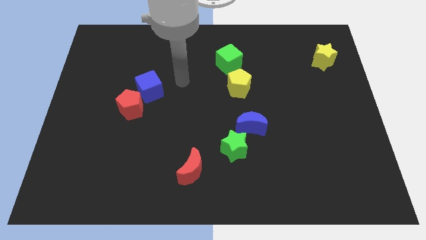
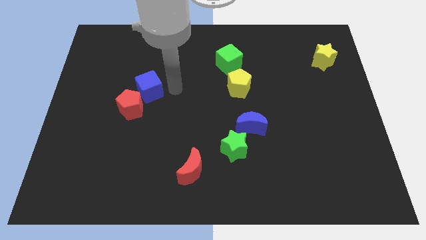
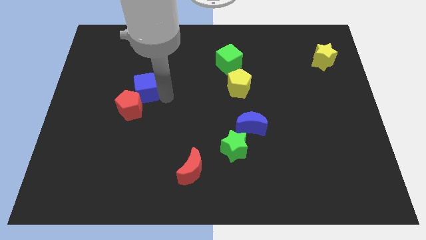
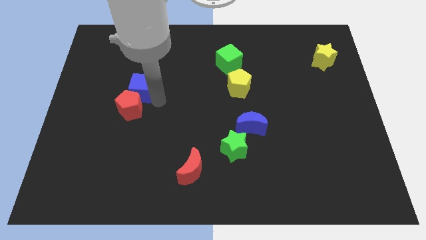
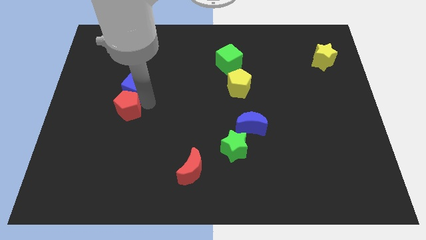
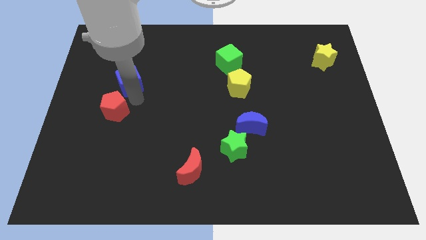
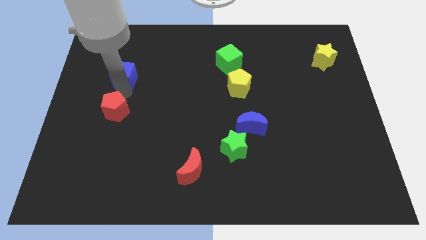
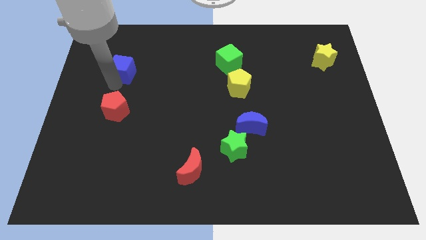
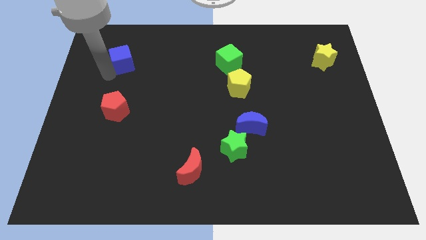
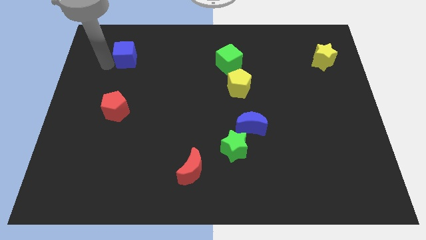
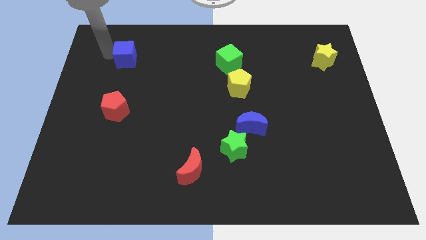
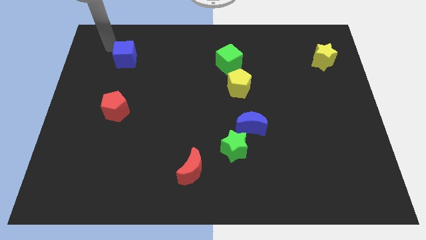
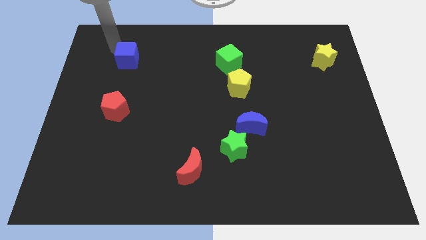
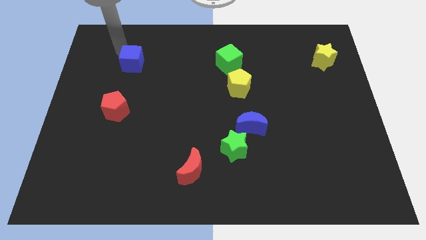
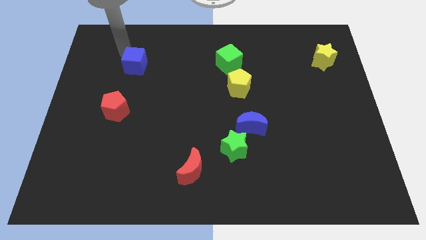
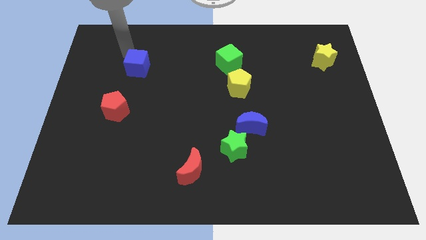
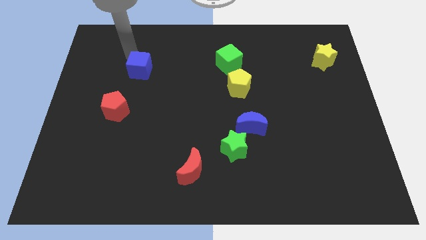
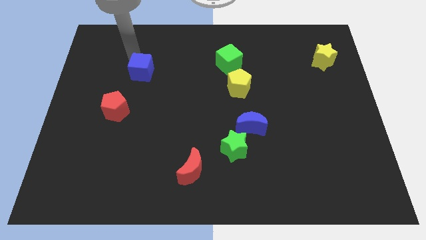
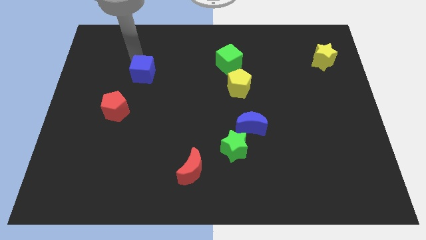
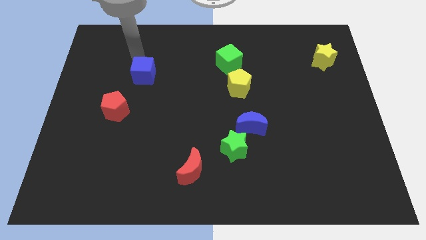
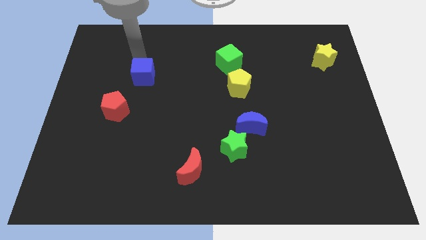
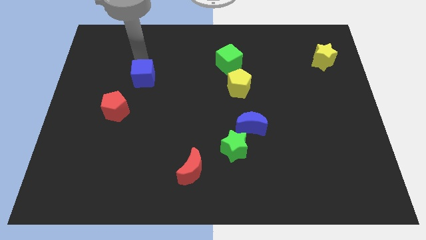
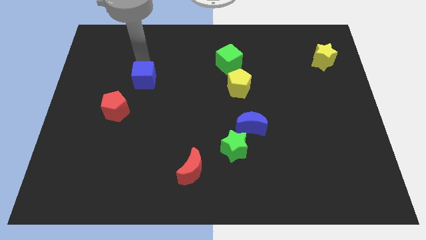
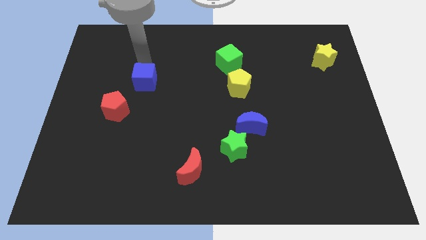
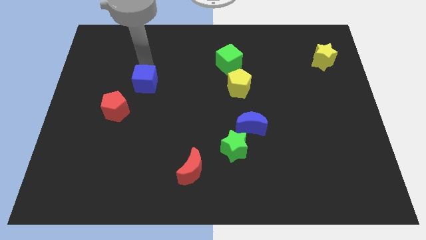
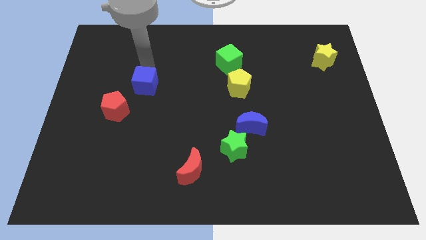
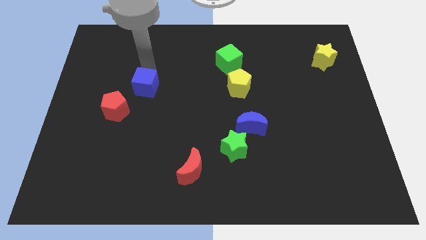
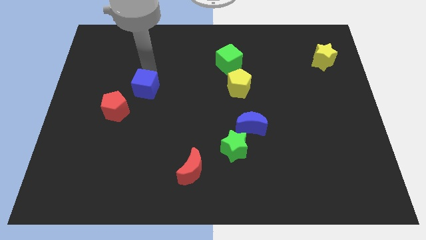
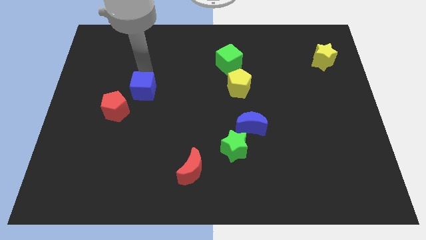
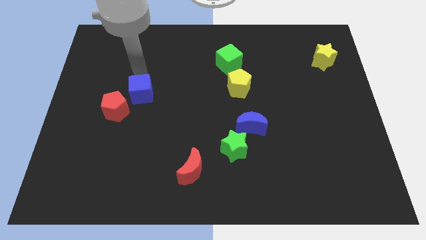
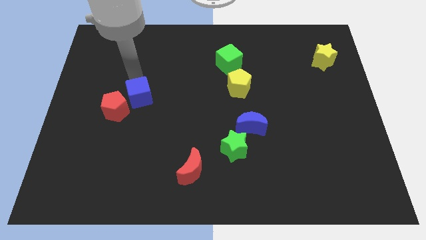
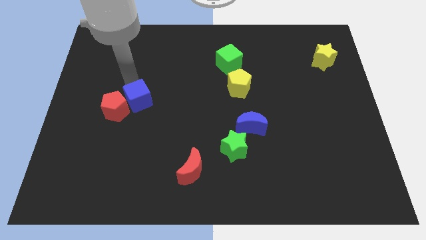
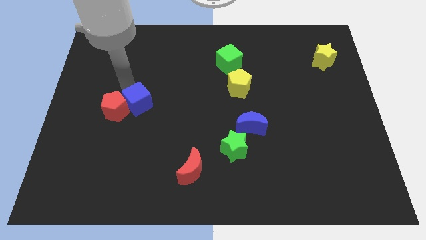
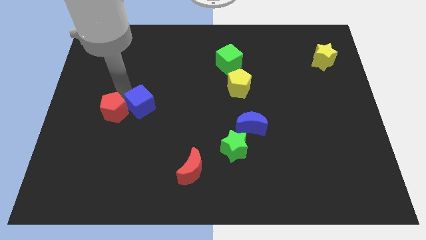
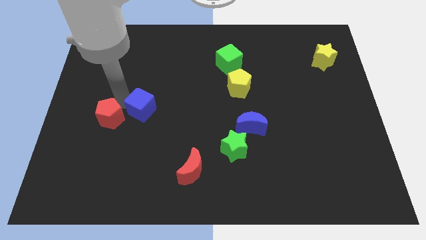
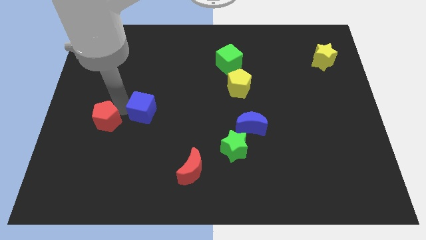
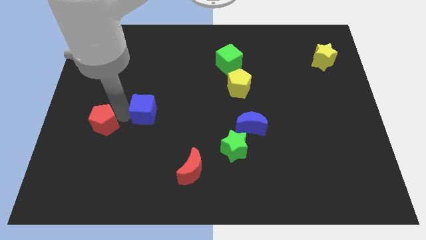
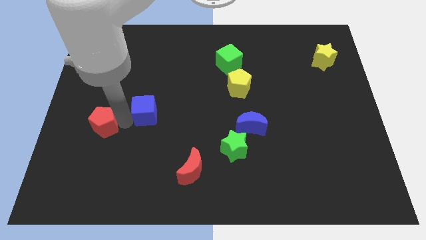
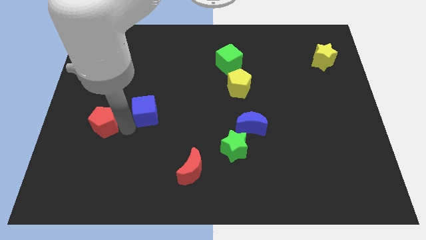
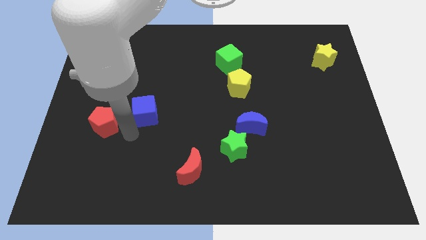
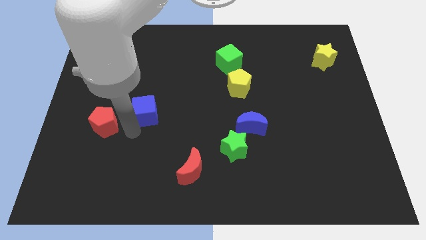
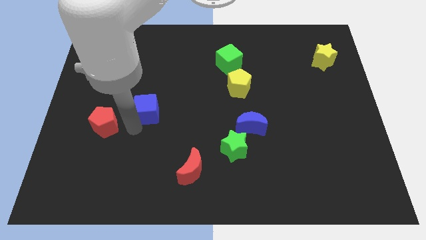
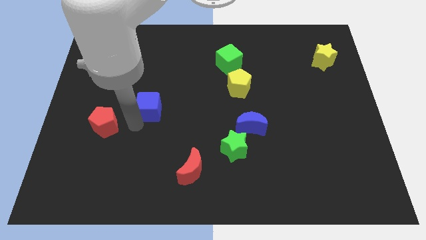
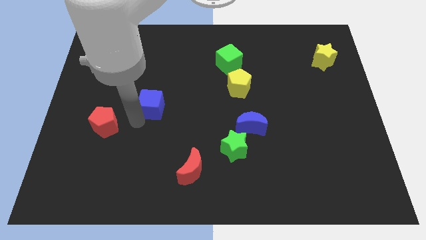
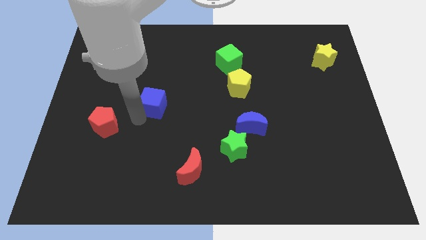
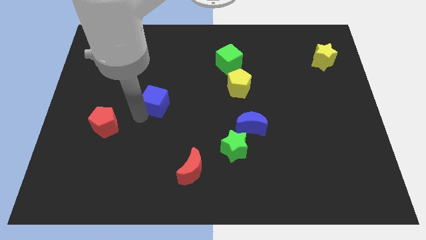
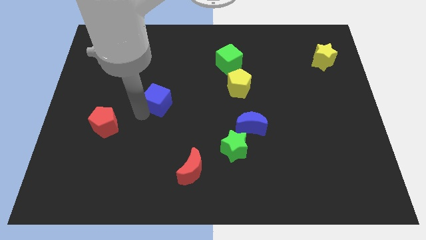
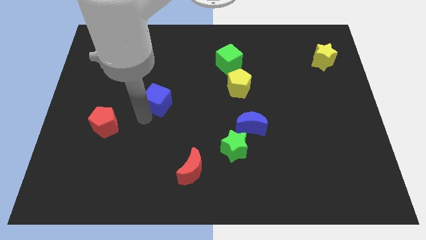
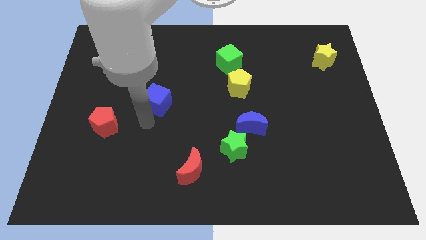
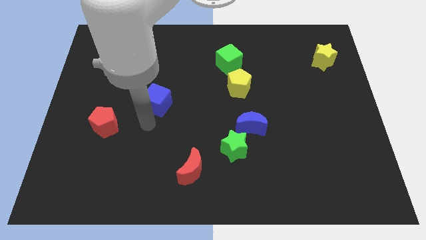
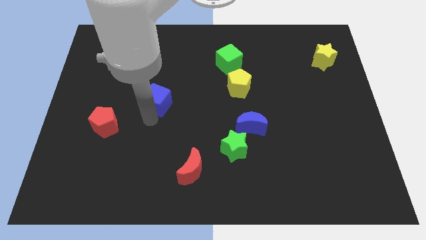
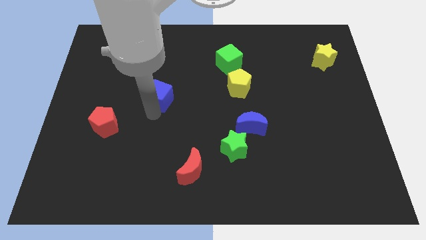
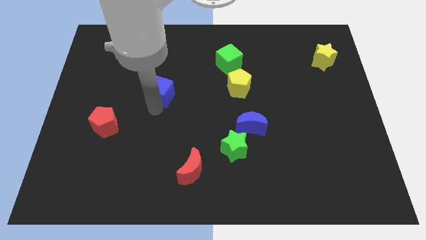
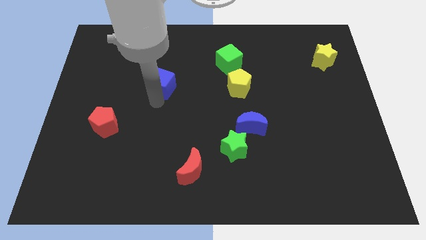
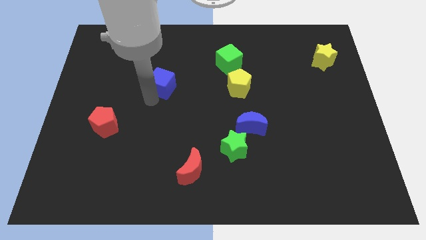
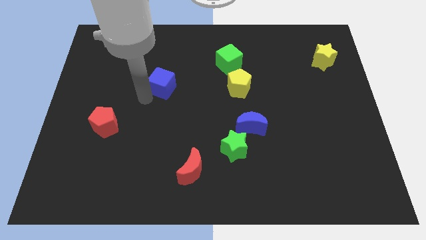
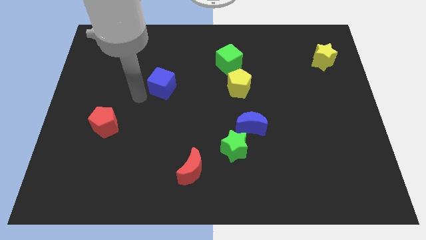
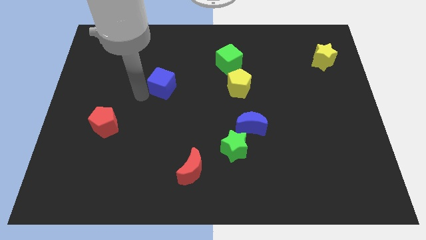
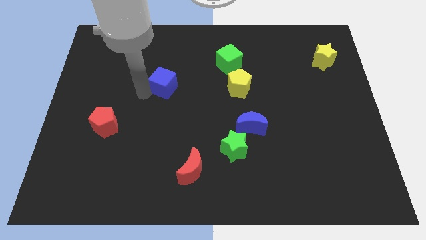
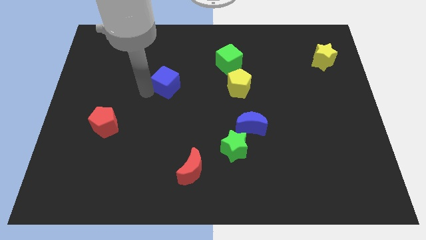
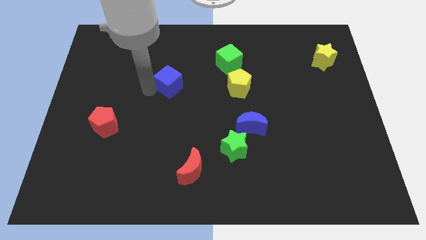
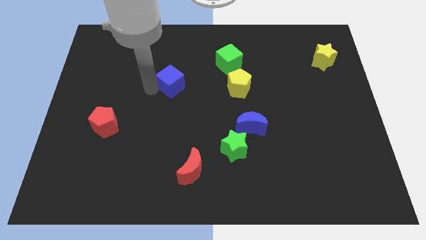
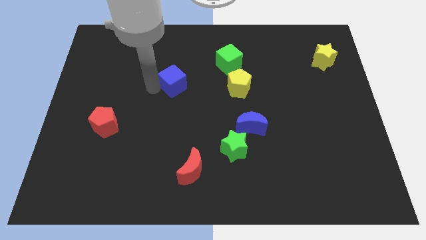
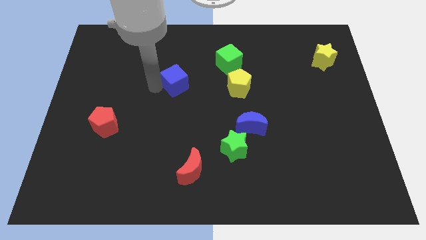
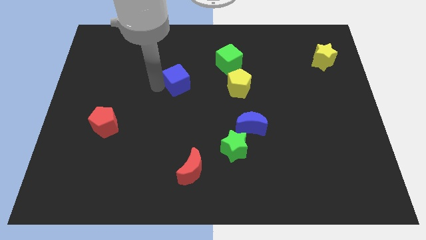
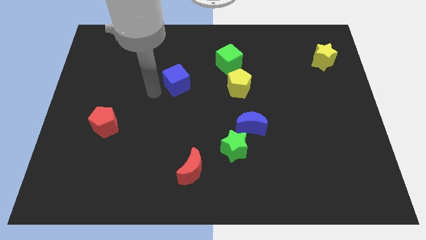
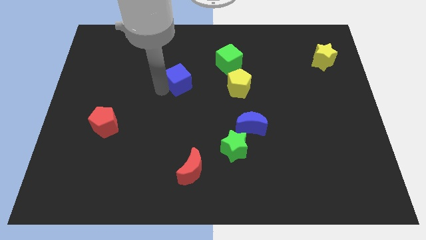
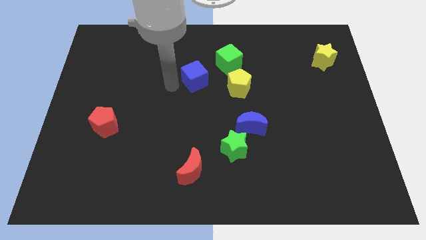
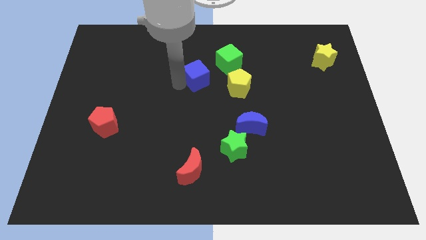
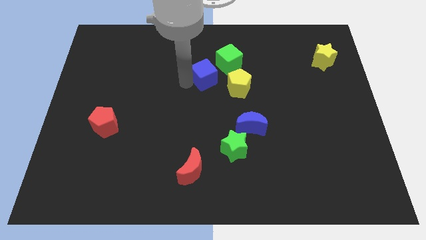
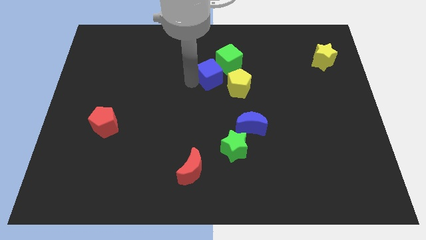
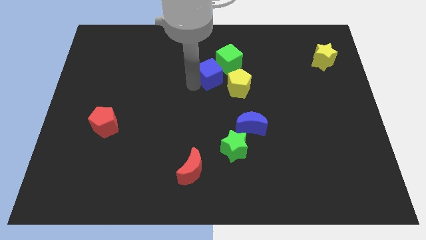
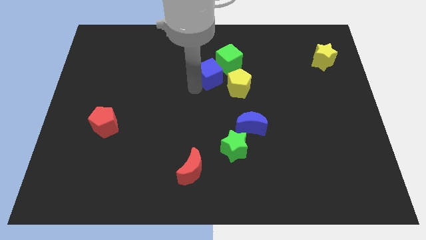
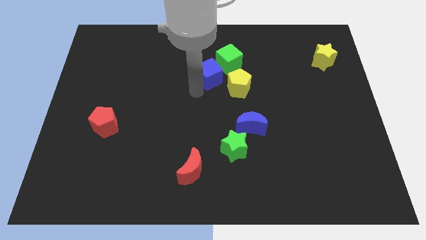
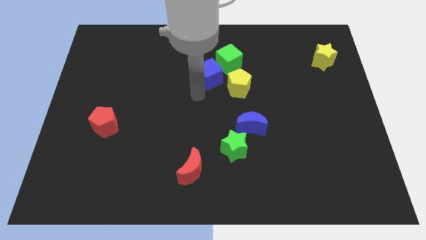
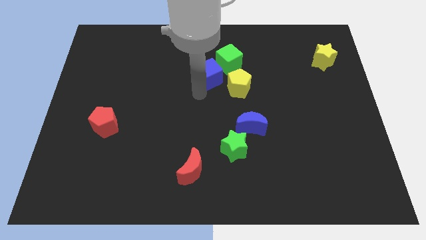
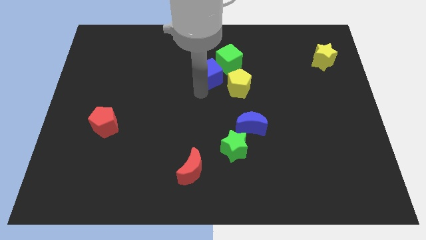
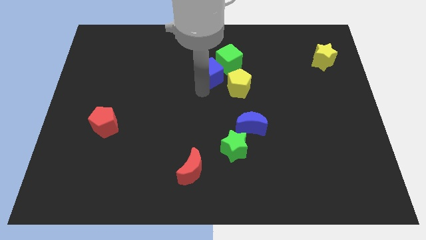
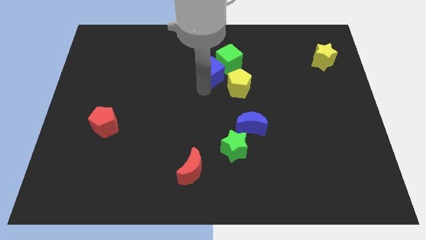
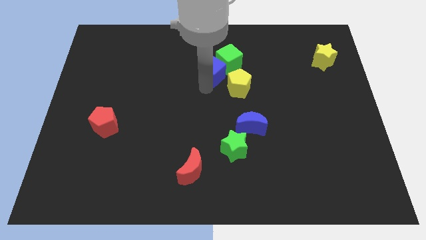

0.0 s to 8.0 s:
slide the blue cube close to the green cube
